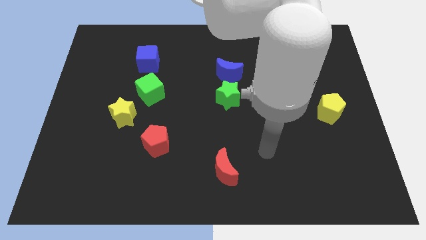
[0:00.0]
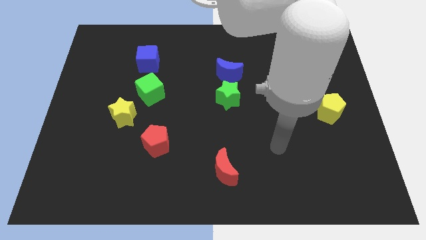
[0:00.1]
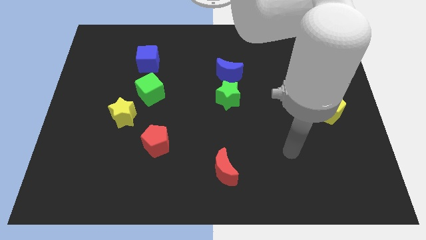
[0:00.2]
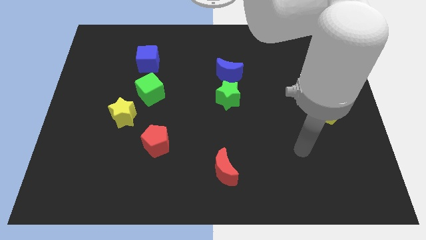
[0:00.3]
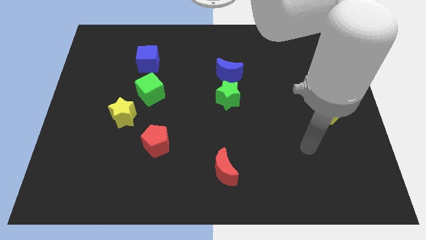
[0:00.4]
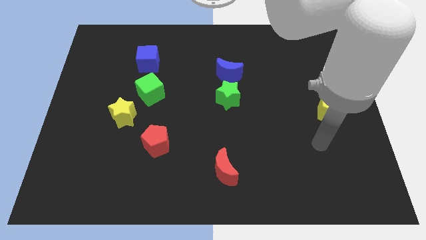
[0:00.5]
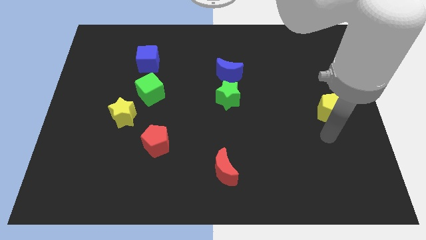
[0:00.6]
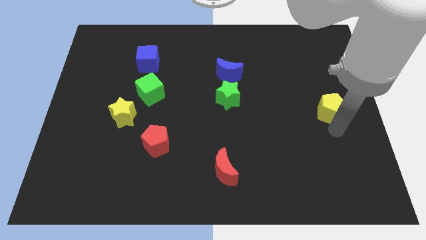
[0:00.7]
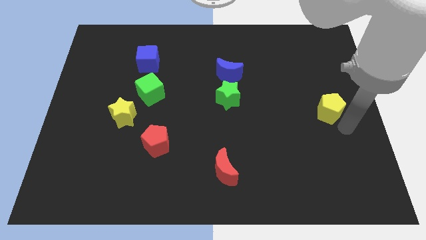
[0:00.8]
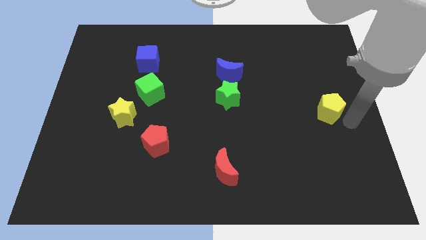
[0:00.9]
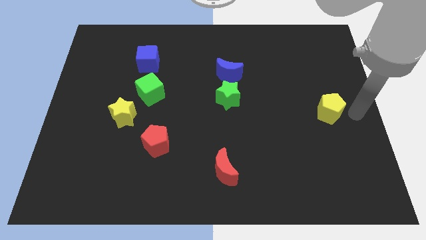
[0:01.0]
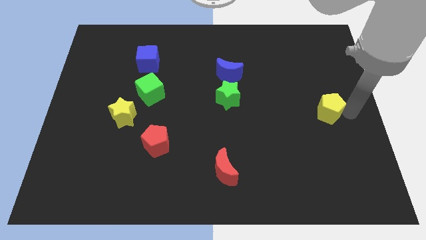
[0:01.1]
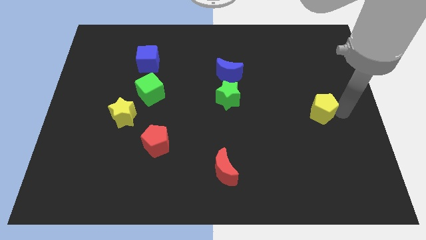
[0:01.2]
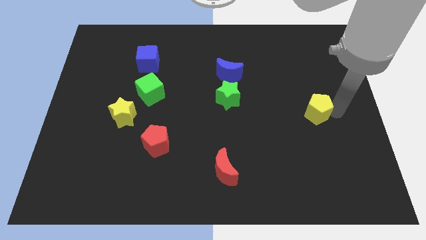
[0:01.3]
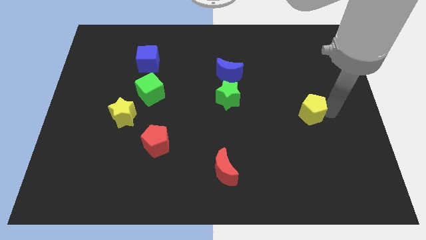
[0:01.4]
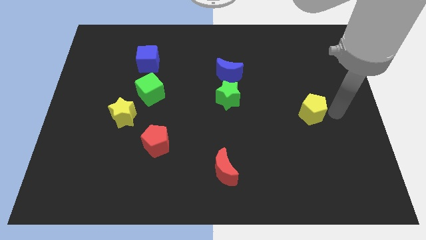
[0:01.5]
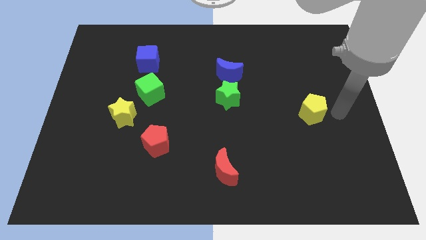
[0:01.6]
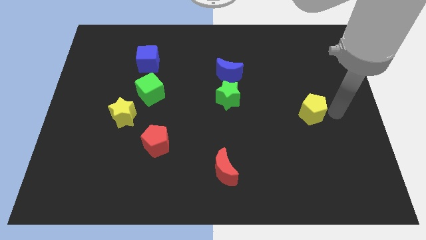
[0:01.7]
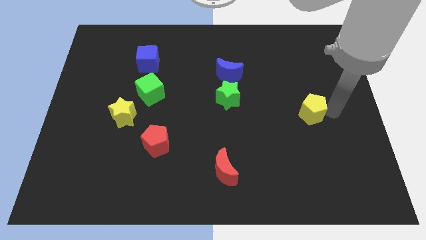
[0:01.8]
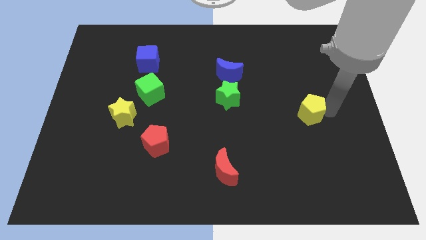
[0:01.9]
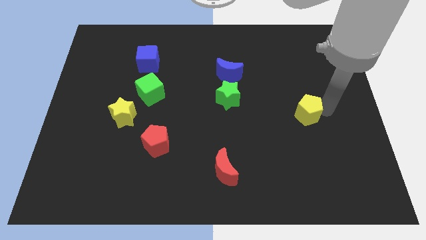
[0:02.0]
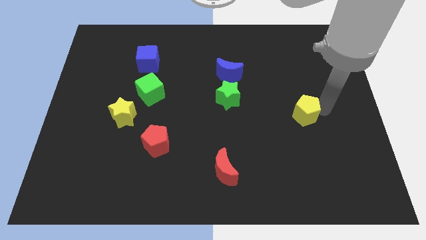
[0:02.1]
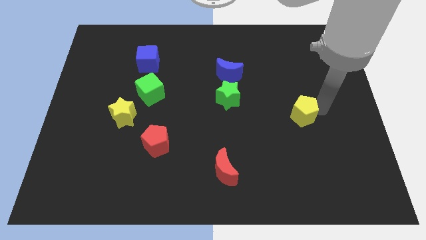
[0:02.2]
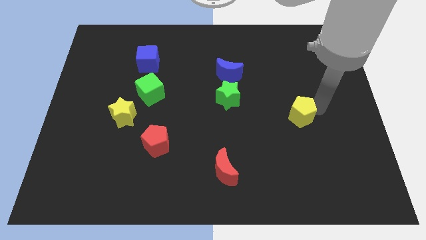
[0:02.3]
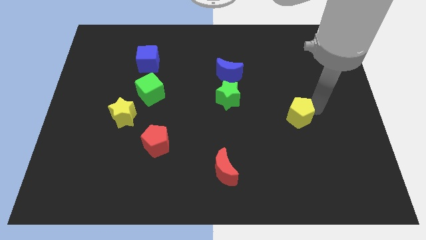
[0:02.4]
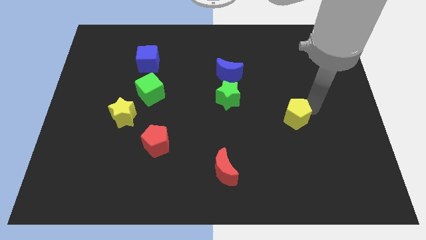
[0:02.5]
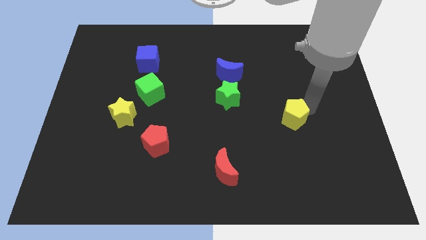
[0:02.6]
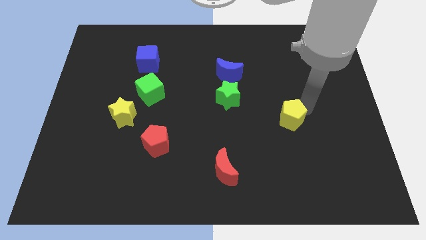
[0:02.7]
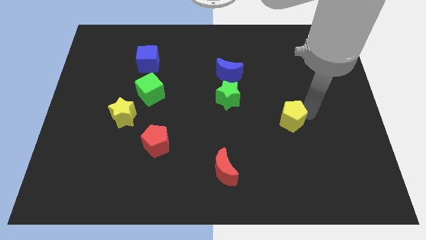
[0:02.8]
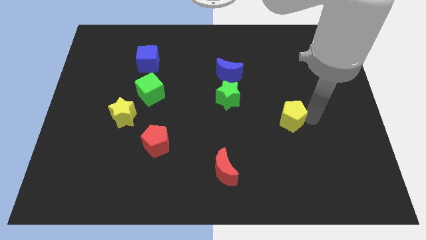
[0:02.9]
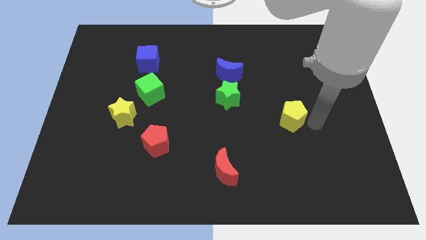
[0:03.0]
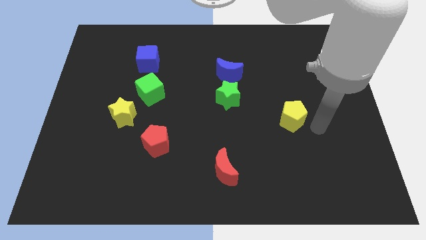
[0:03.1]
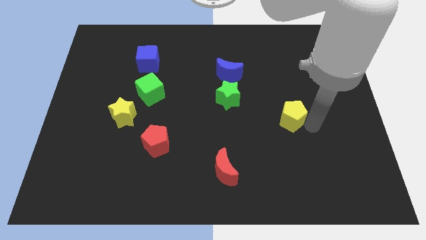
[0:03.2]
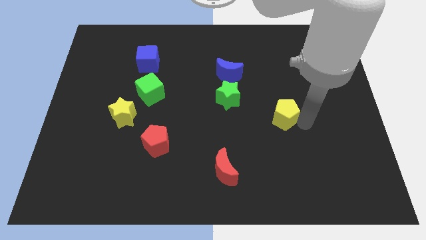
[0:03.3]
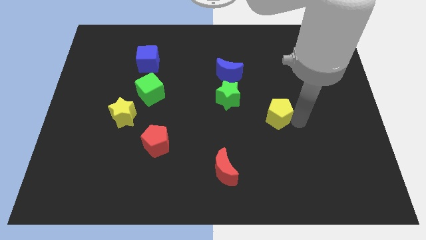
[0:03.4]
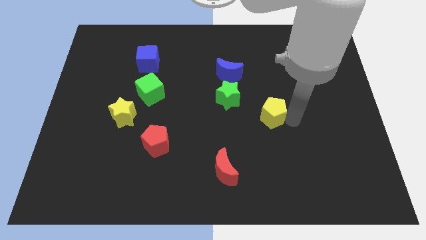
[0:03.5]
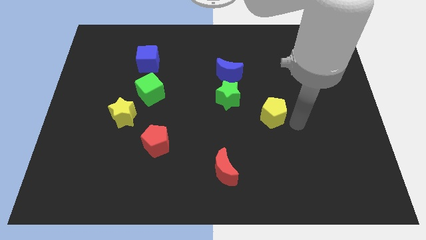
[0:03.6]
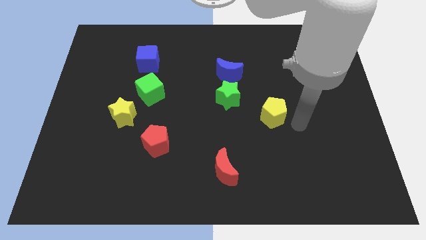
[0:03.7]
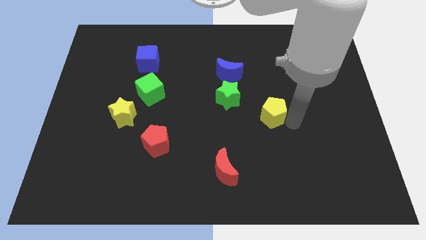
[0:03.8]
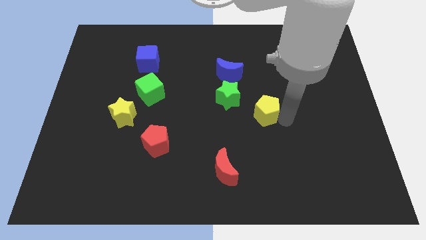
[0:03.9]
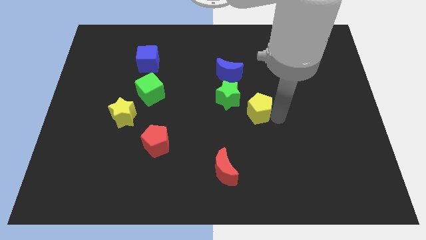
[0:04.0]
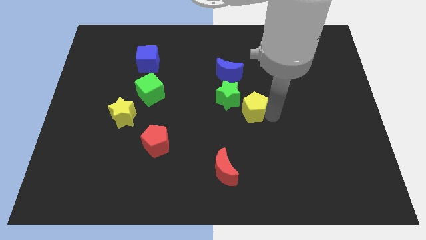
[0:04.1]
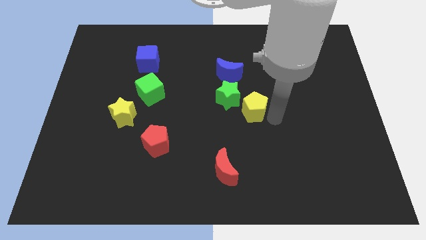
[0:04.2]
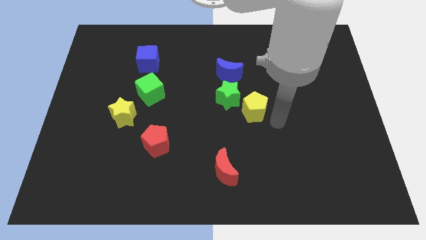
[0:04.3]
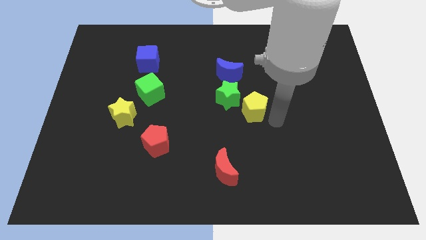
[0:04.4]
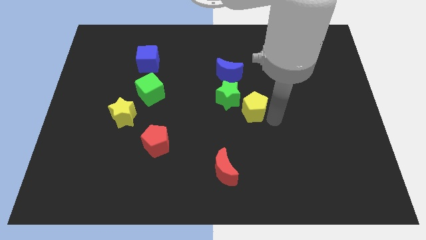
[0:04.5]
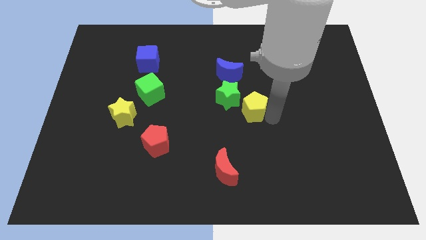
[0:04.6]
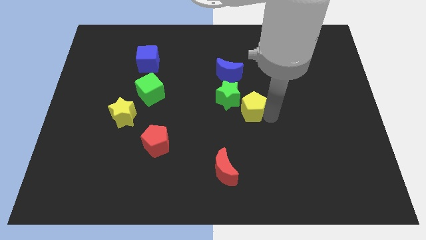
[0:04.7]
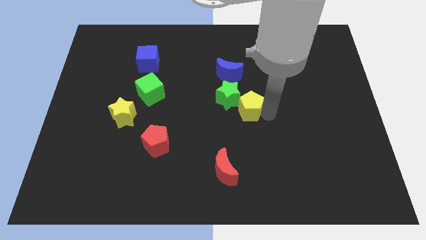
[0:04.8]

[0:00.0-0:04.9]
put the yellow pentagon towards the green star

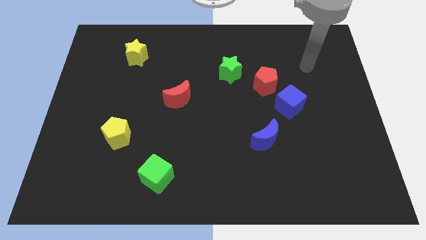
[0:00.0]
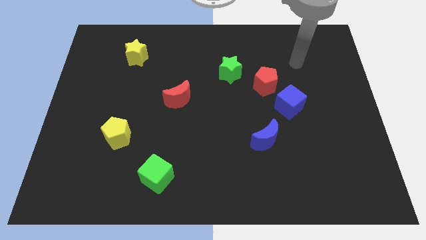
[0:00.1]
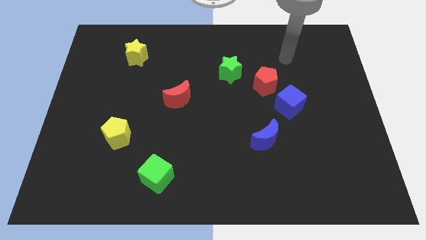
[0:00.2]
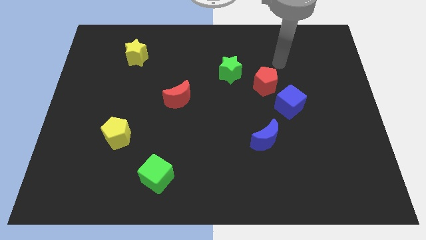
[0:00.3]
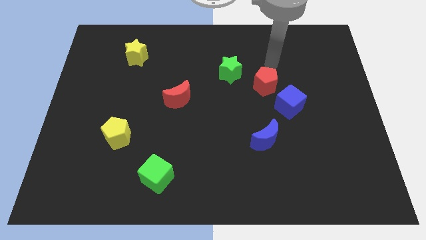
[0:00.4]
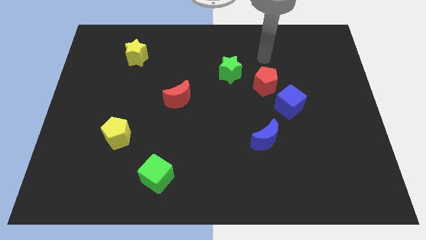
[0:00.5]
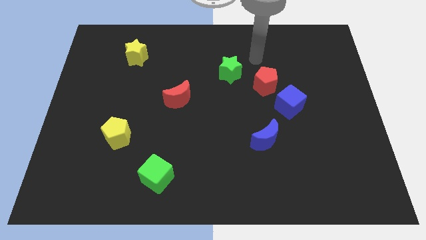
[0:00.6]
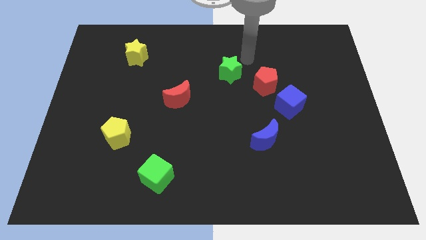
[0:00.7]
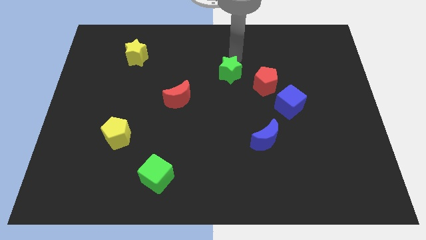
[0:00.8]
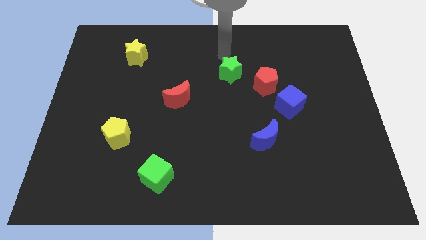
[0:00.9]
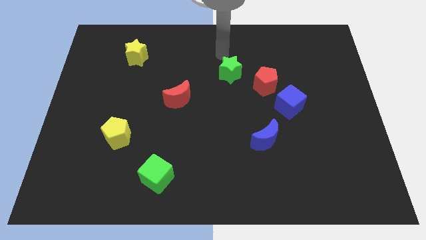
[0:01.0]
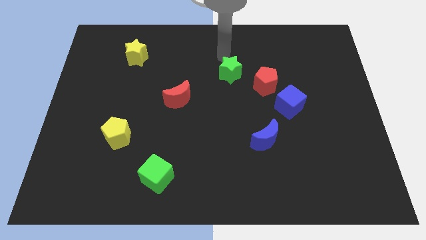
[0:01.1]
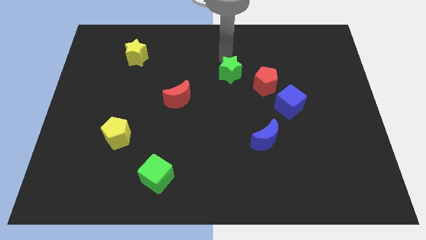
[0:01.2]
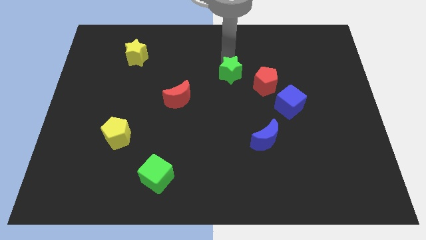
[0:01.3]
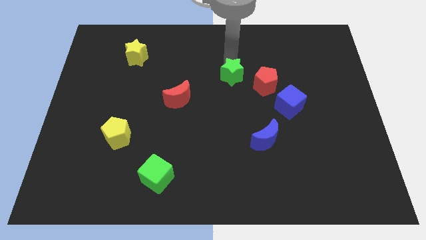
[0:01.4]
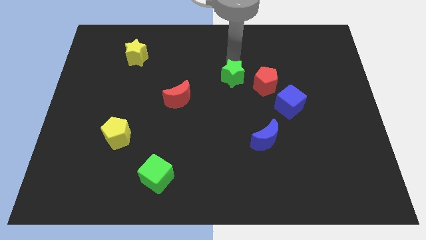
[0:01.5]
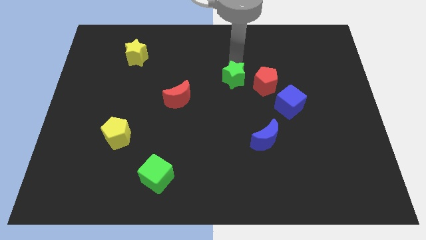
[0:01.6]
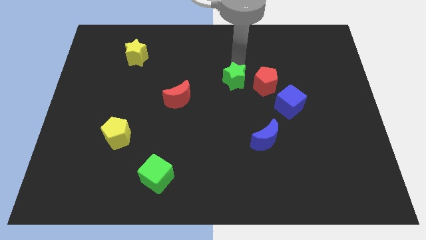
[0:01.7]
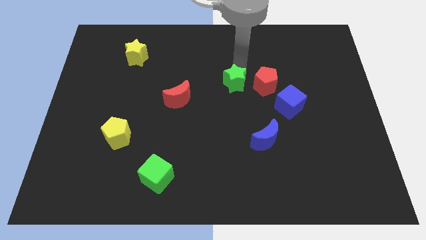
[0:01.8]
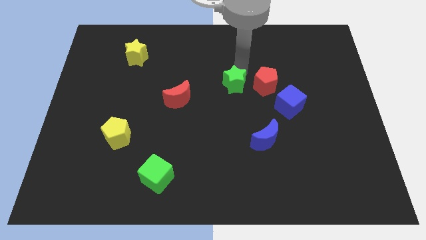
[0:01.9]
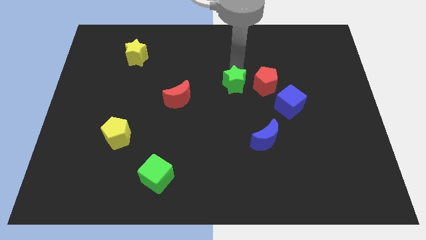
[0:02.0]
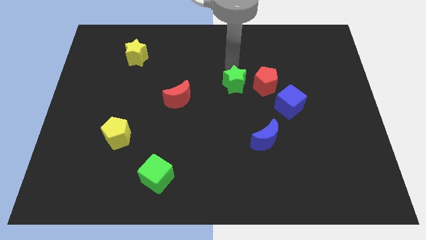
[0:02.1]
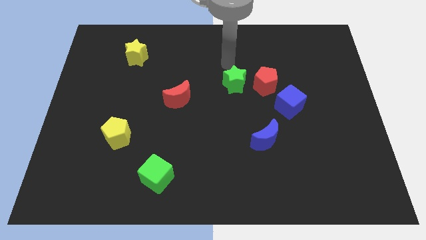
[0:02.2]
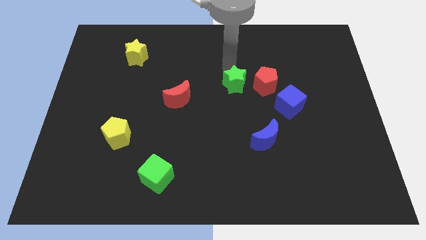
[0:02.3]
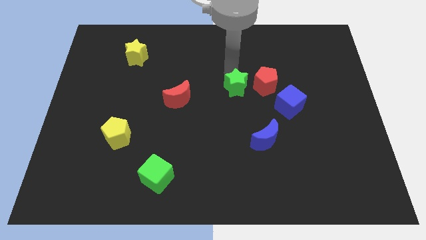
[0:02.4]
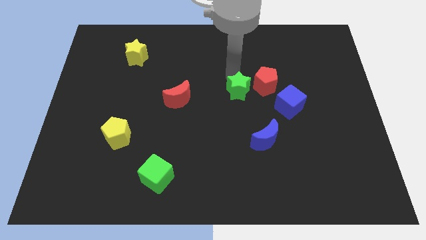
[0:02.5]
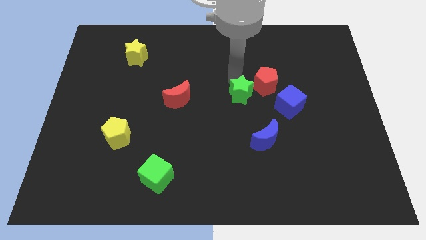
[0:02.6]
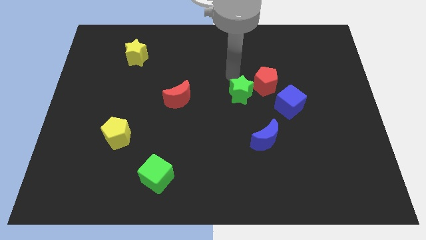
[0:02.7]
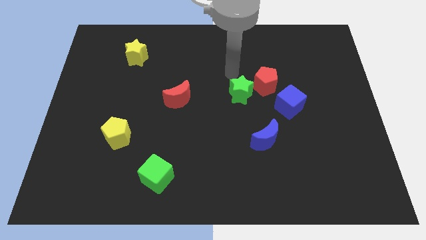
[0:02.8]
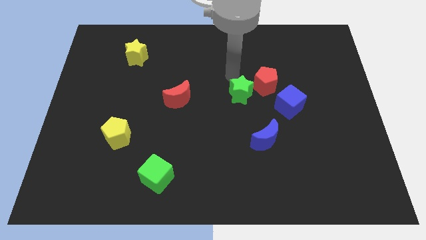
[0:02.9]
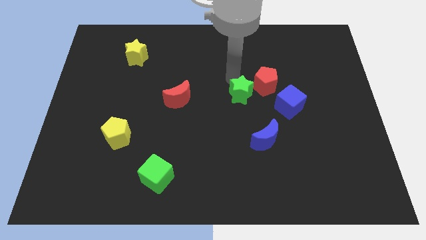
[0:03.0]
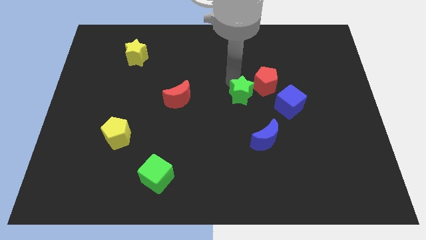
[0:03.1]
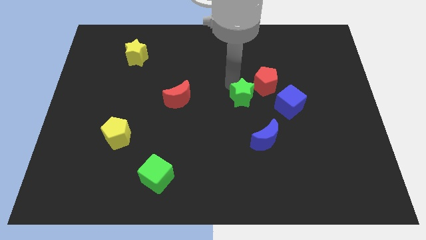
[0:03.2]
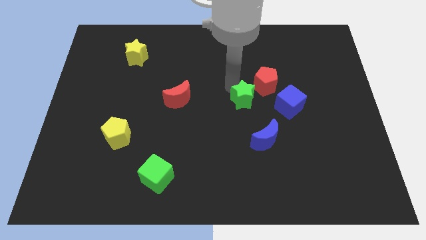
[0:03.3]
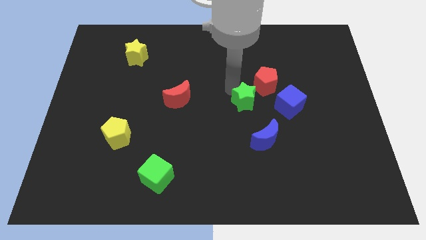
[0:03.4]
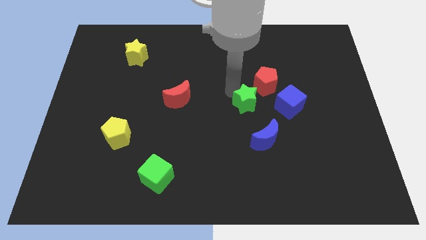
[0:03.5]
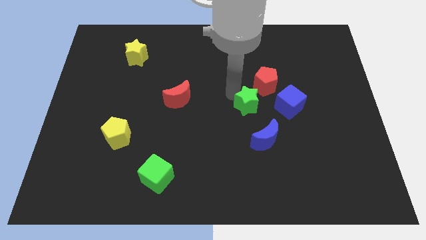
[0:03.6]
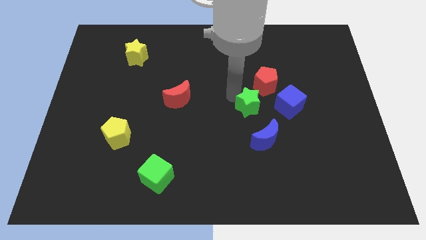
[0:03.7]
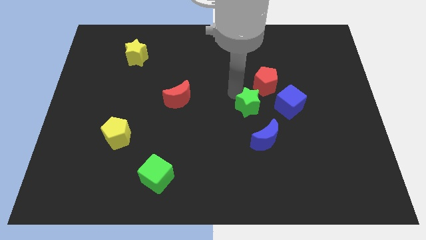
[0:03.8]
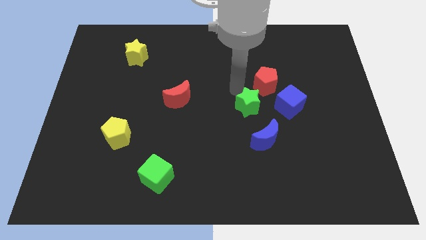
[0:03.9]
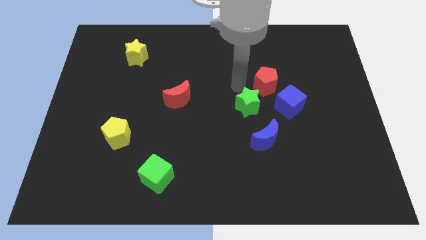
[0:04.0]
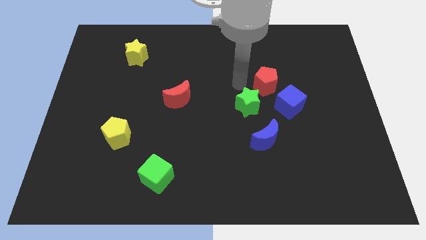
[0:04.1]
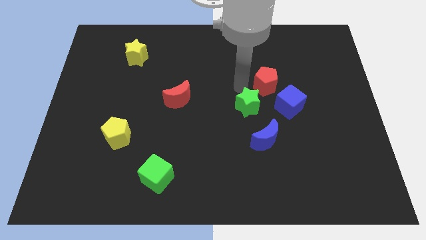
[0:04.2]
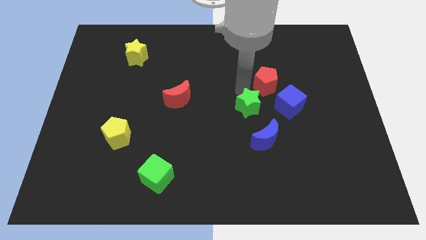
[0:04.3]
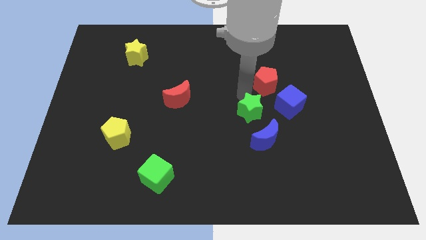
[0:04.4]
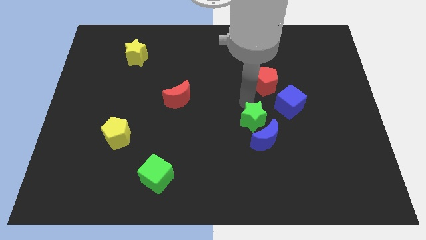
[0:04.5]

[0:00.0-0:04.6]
move the green star towards the blue moon
